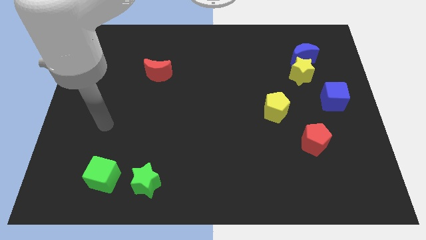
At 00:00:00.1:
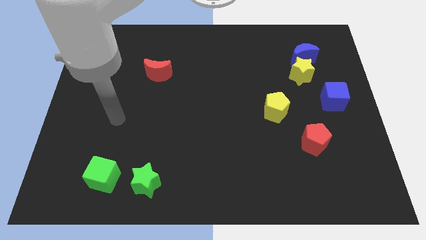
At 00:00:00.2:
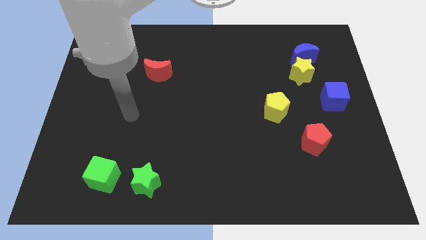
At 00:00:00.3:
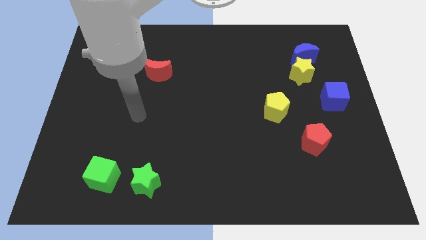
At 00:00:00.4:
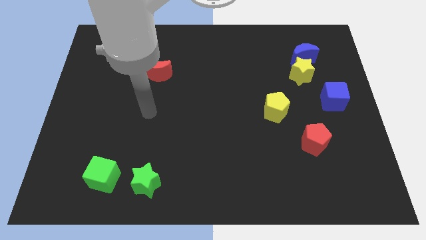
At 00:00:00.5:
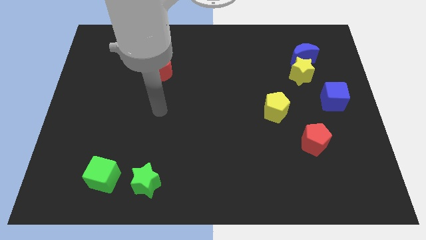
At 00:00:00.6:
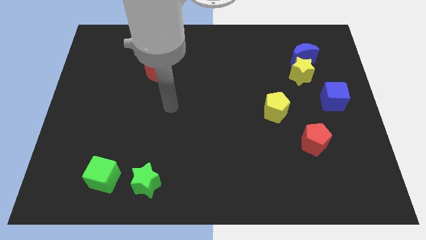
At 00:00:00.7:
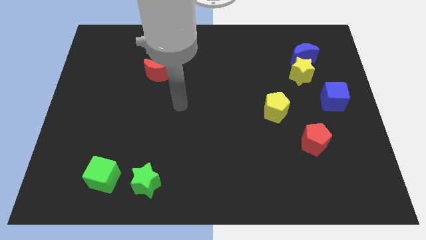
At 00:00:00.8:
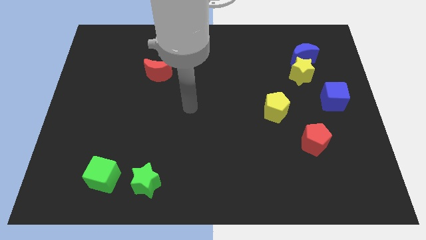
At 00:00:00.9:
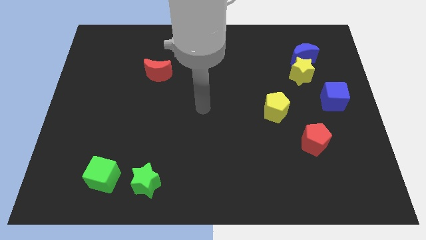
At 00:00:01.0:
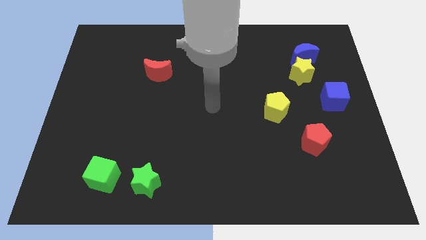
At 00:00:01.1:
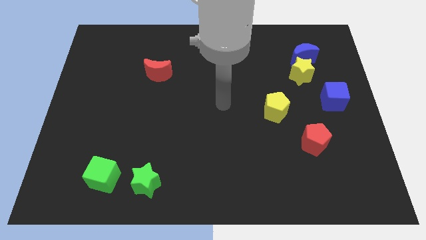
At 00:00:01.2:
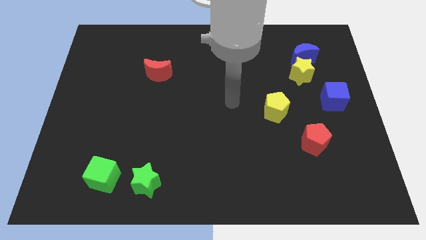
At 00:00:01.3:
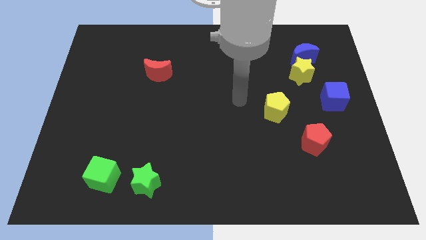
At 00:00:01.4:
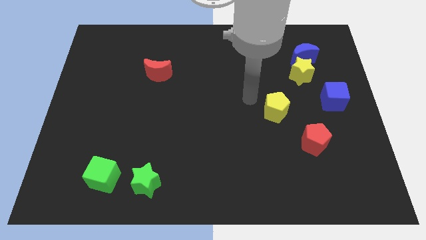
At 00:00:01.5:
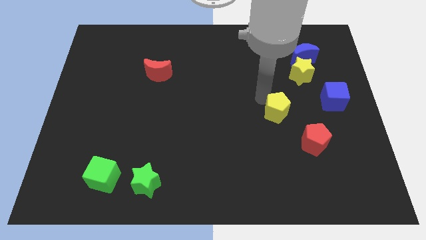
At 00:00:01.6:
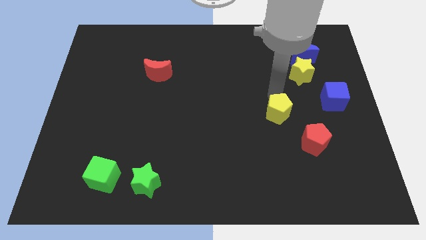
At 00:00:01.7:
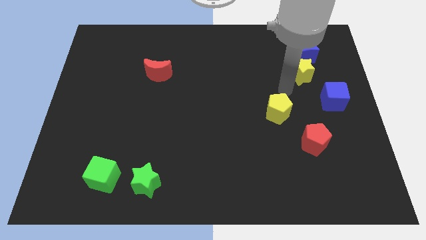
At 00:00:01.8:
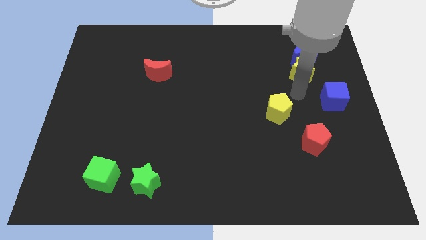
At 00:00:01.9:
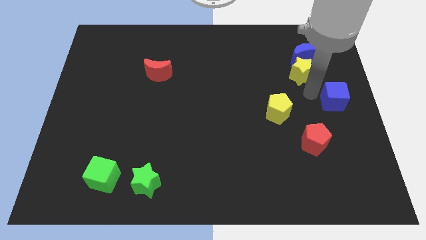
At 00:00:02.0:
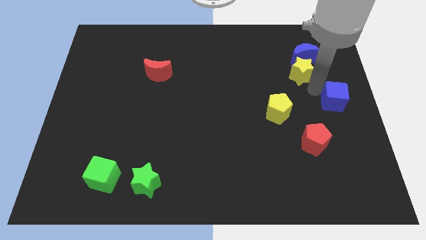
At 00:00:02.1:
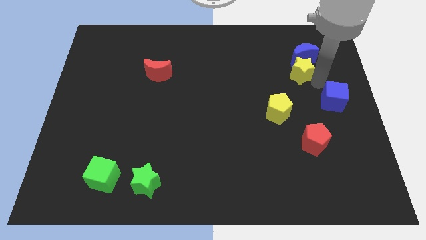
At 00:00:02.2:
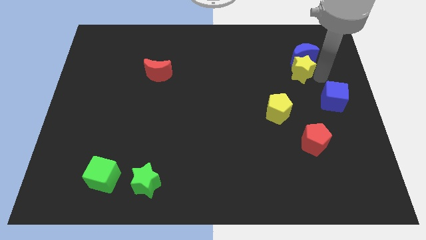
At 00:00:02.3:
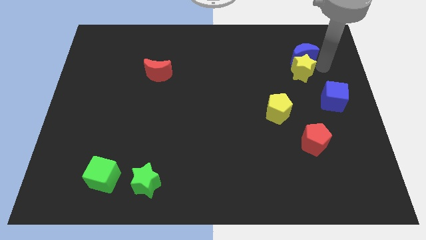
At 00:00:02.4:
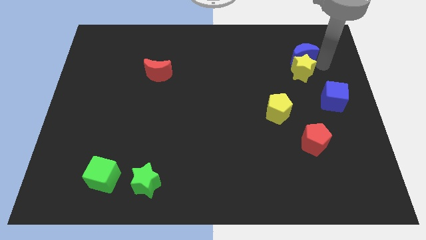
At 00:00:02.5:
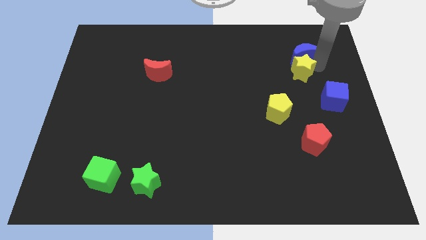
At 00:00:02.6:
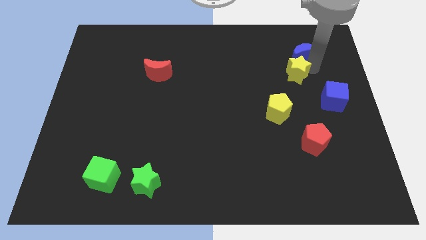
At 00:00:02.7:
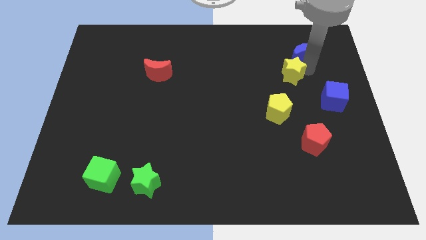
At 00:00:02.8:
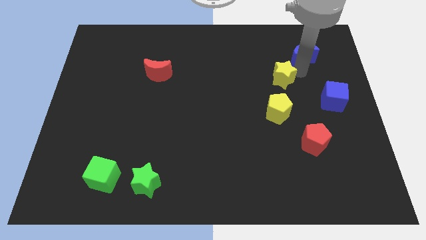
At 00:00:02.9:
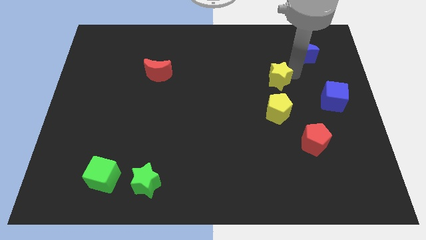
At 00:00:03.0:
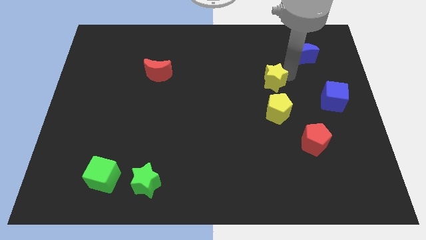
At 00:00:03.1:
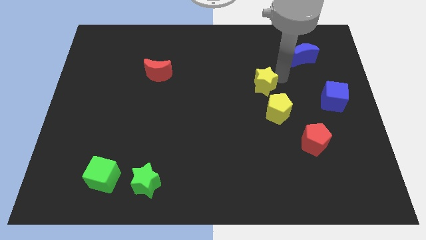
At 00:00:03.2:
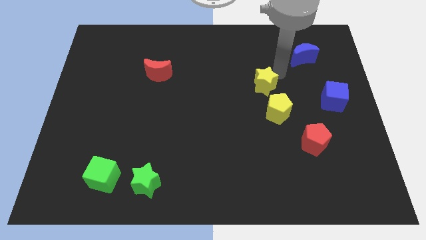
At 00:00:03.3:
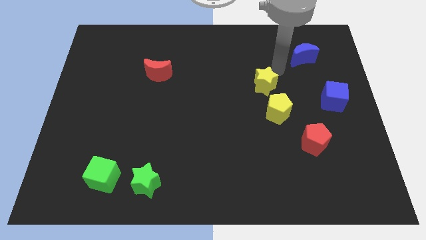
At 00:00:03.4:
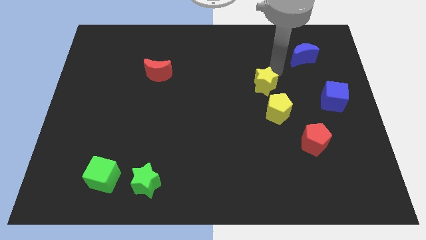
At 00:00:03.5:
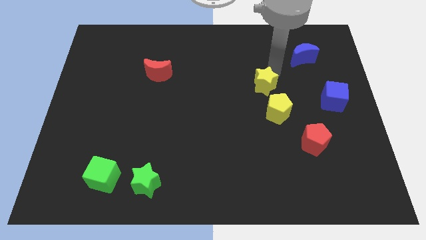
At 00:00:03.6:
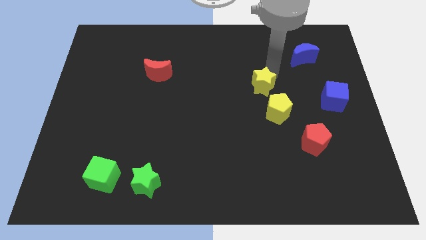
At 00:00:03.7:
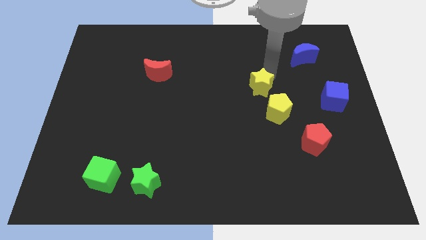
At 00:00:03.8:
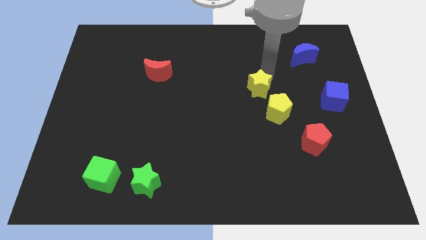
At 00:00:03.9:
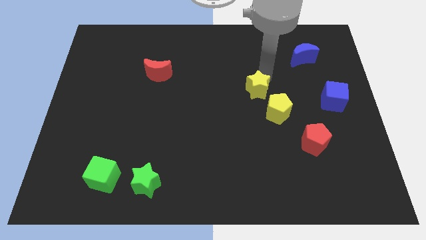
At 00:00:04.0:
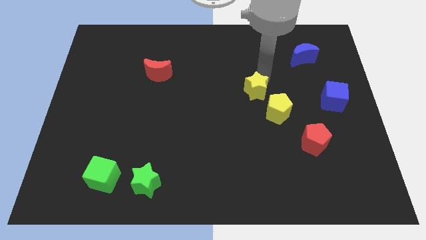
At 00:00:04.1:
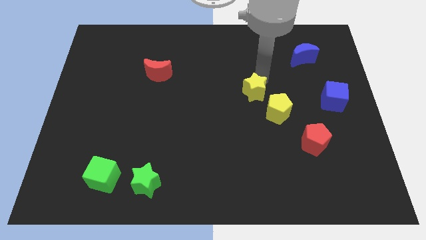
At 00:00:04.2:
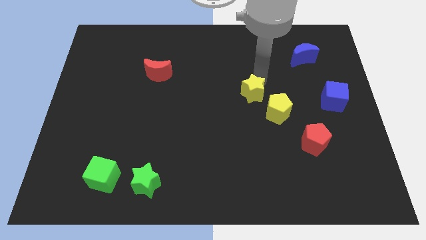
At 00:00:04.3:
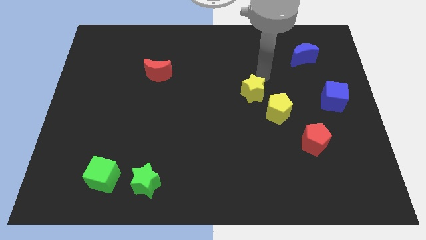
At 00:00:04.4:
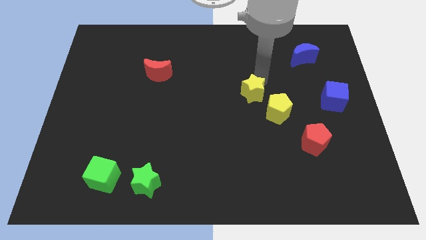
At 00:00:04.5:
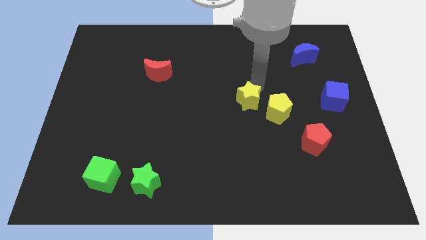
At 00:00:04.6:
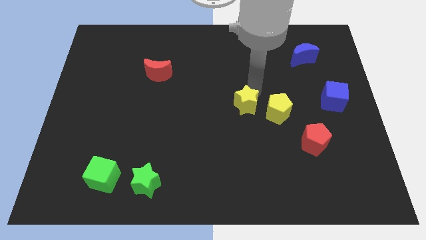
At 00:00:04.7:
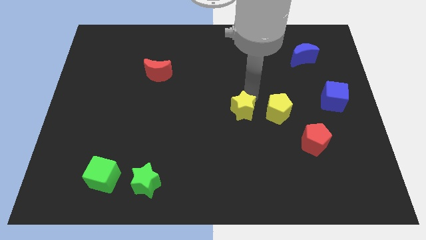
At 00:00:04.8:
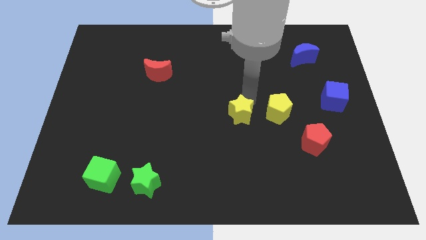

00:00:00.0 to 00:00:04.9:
move the yellow star downwards and to the left

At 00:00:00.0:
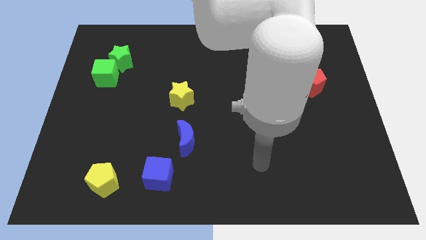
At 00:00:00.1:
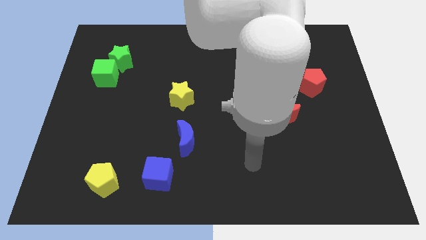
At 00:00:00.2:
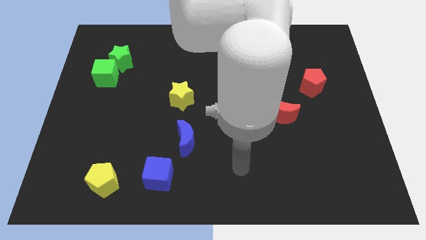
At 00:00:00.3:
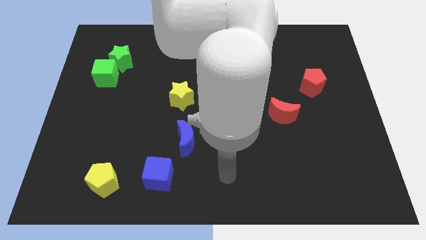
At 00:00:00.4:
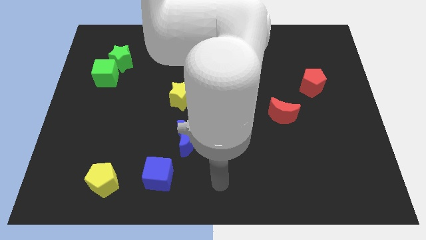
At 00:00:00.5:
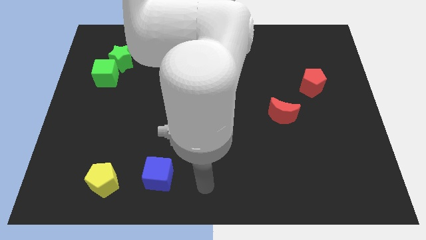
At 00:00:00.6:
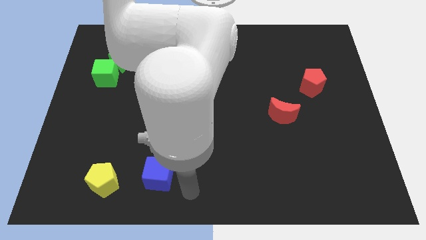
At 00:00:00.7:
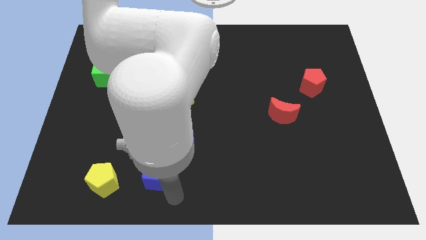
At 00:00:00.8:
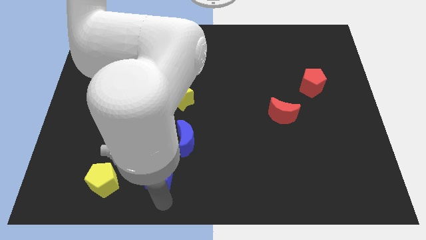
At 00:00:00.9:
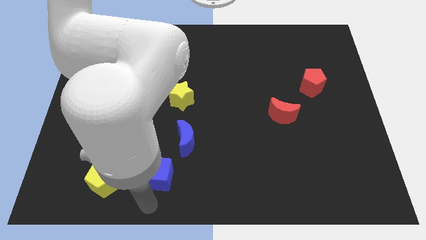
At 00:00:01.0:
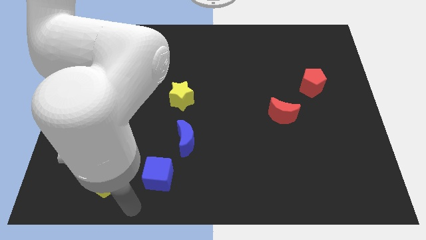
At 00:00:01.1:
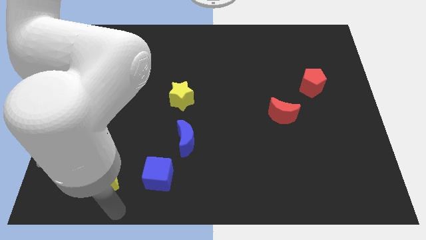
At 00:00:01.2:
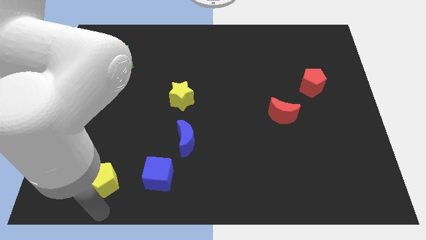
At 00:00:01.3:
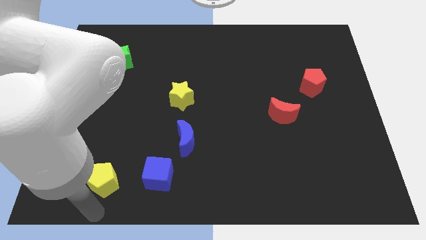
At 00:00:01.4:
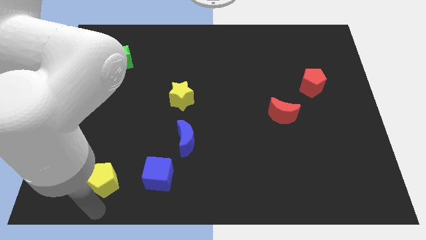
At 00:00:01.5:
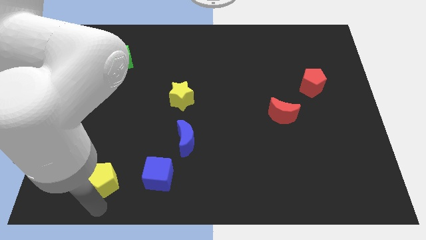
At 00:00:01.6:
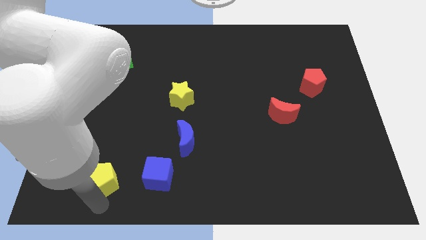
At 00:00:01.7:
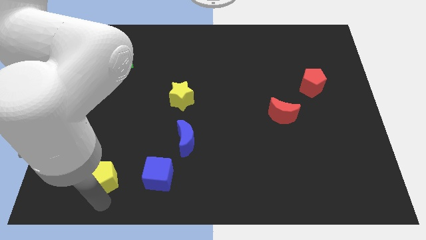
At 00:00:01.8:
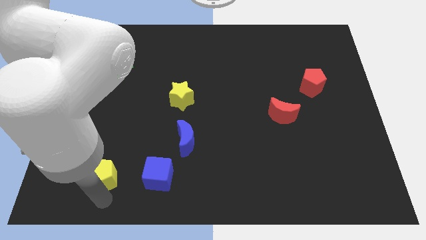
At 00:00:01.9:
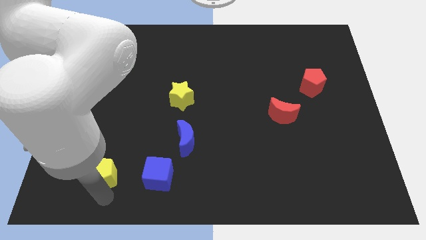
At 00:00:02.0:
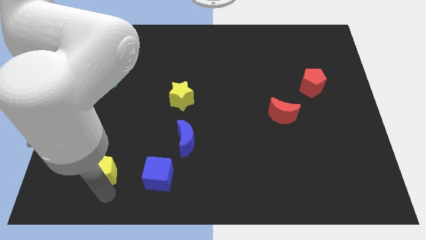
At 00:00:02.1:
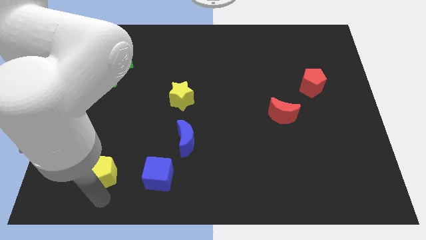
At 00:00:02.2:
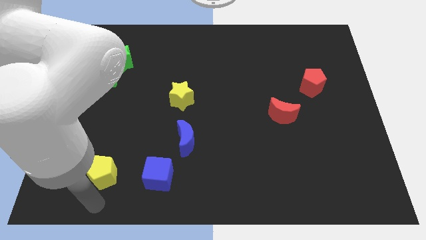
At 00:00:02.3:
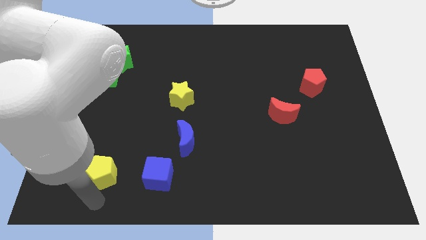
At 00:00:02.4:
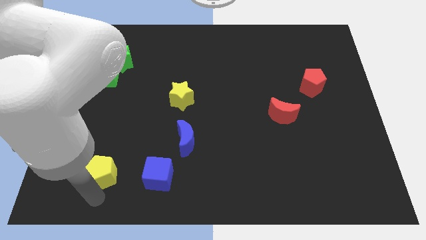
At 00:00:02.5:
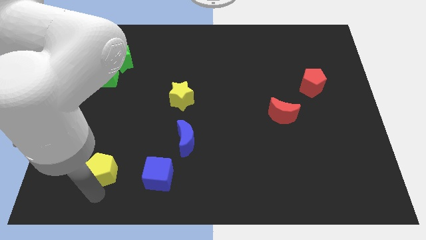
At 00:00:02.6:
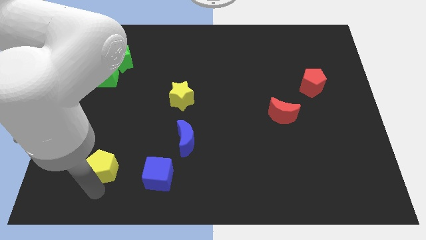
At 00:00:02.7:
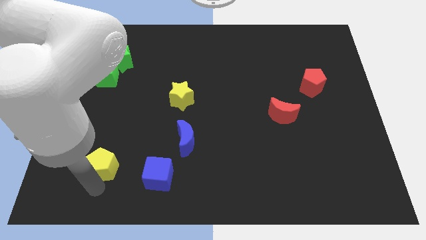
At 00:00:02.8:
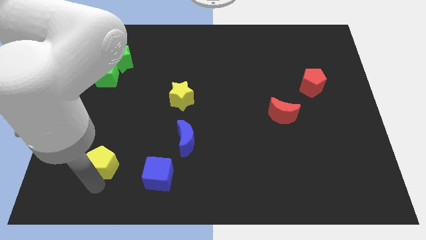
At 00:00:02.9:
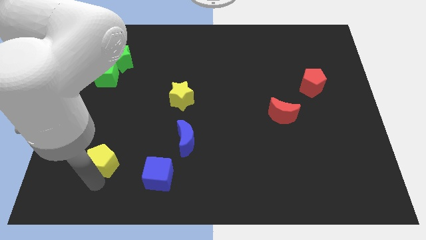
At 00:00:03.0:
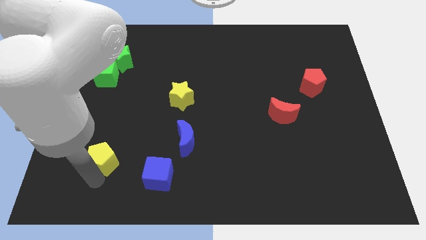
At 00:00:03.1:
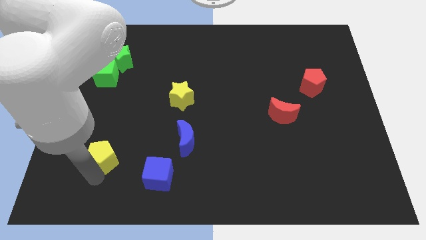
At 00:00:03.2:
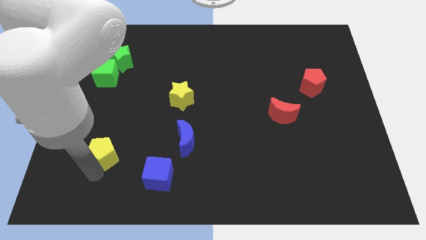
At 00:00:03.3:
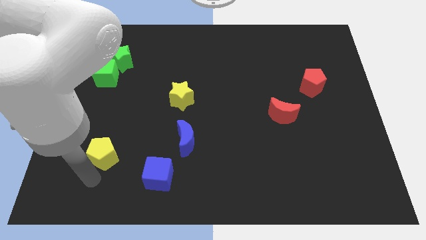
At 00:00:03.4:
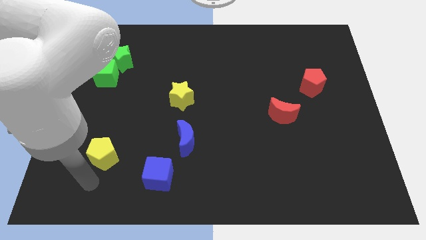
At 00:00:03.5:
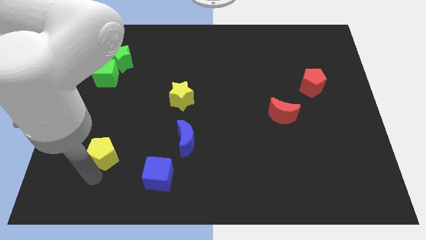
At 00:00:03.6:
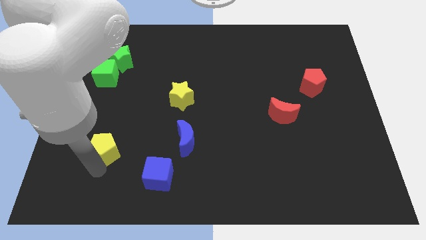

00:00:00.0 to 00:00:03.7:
slightly move the yellow pentagon upwards
